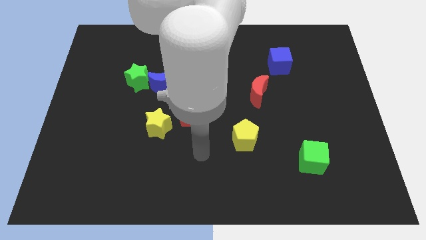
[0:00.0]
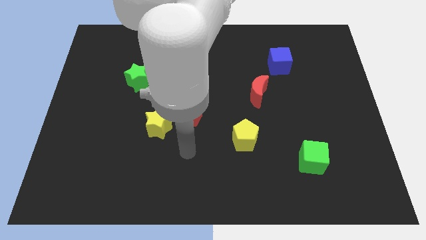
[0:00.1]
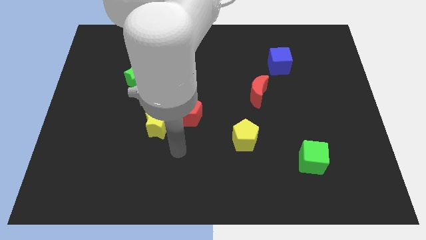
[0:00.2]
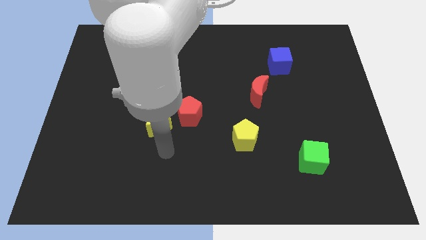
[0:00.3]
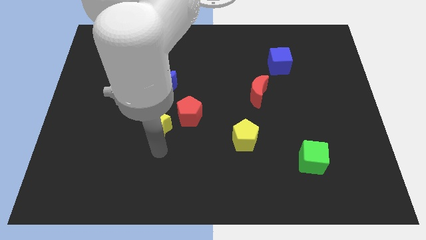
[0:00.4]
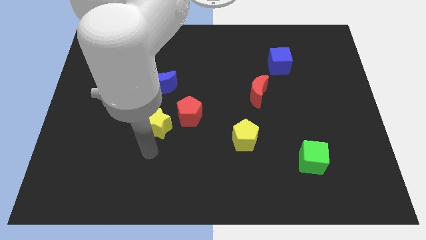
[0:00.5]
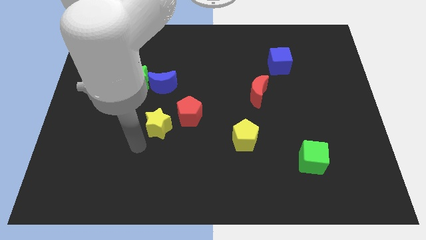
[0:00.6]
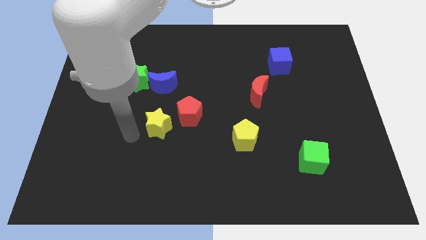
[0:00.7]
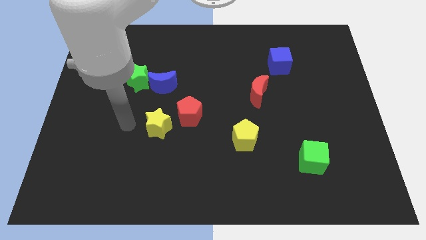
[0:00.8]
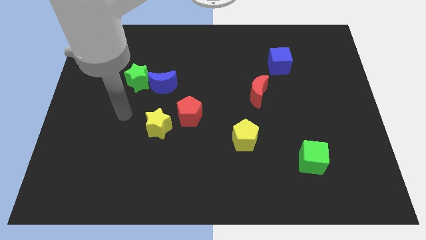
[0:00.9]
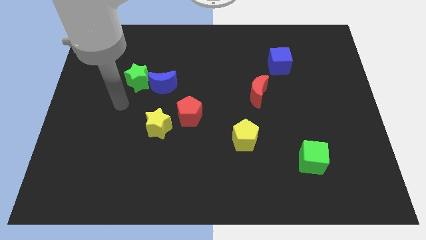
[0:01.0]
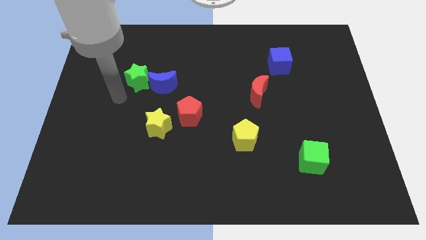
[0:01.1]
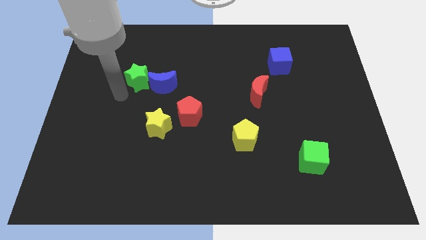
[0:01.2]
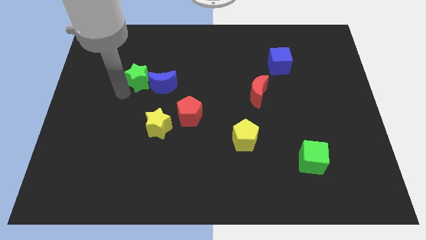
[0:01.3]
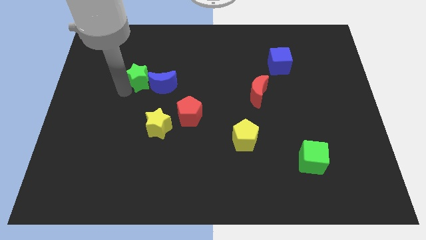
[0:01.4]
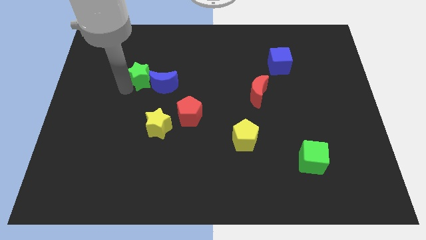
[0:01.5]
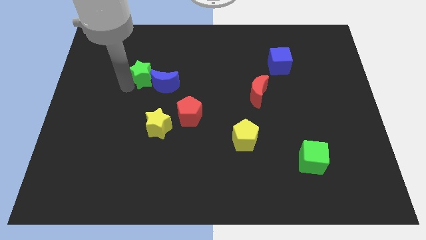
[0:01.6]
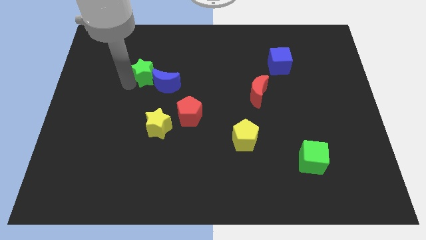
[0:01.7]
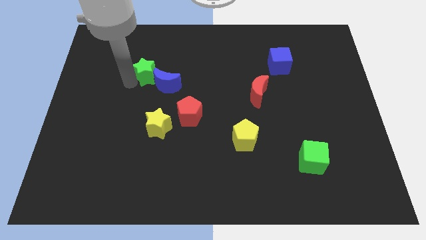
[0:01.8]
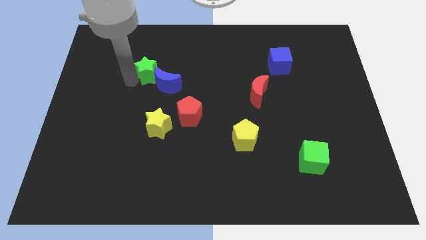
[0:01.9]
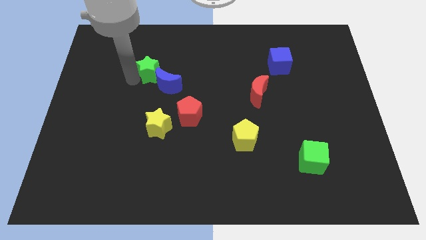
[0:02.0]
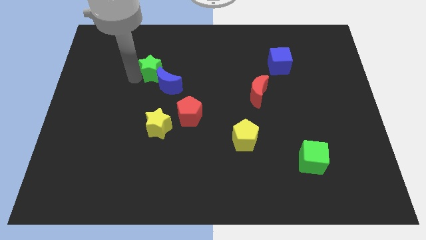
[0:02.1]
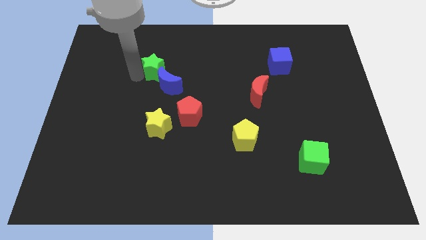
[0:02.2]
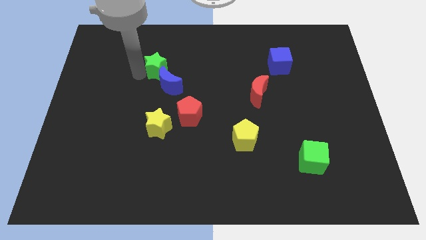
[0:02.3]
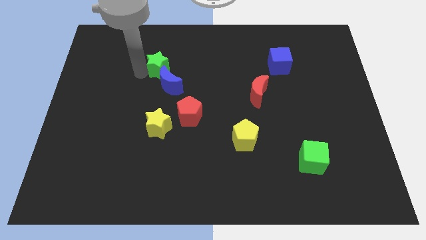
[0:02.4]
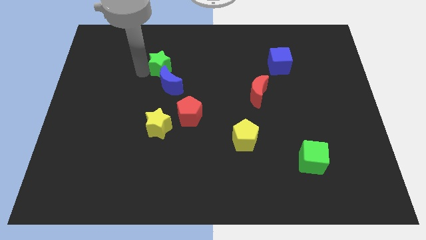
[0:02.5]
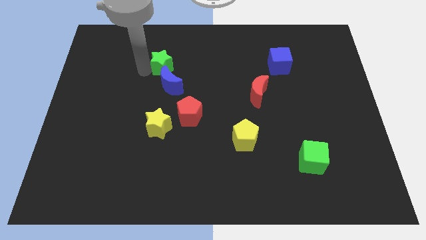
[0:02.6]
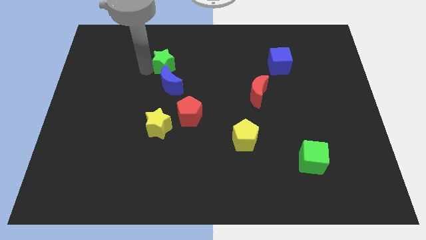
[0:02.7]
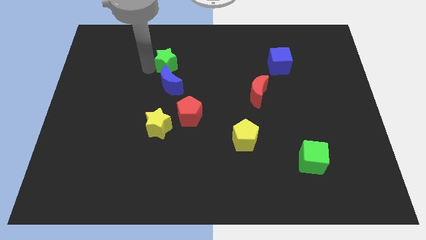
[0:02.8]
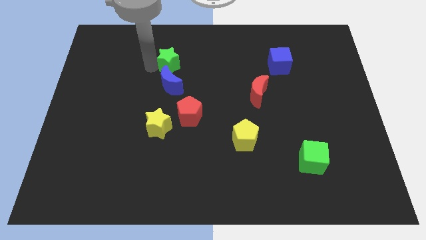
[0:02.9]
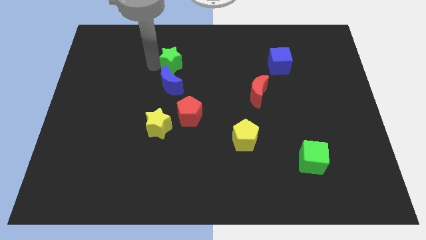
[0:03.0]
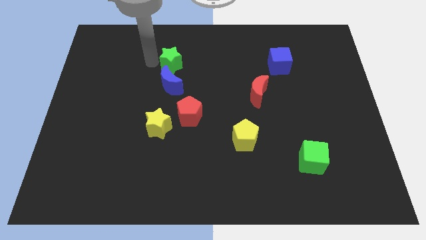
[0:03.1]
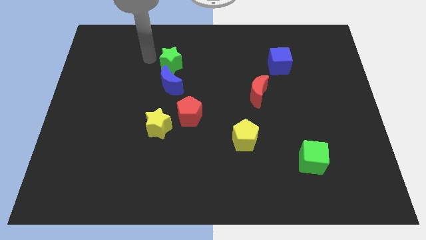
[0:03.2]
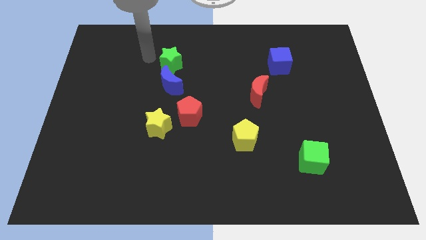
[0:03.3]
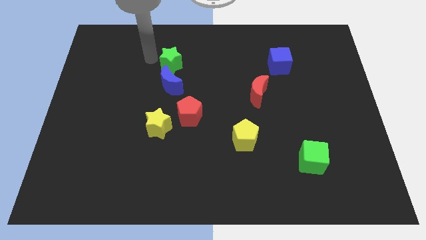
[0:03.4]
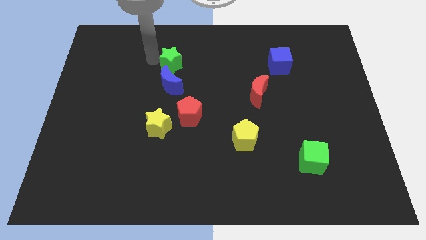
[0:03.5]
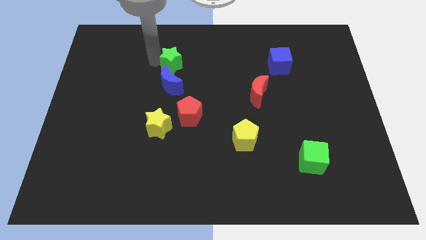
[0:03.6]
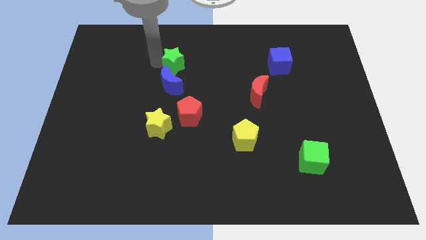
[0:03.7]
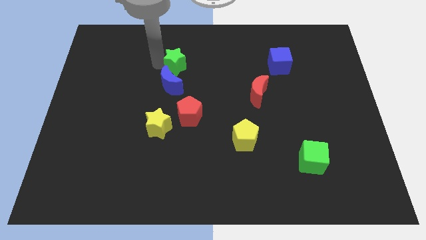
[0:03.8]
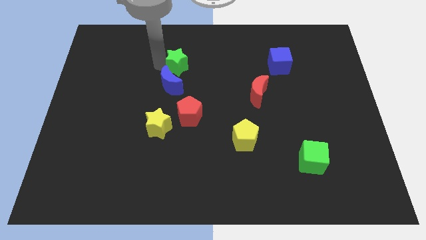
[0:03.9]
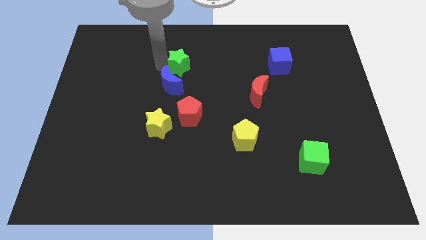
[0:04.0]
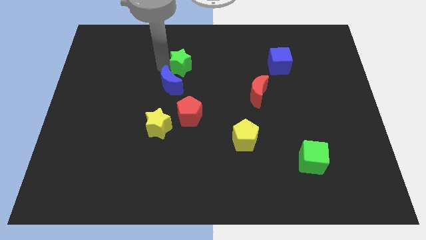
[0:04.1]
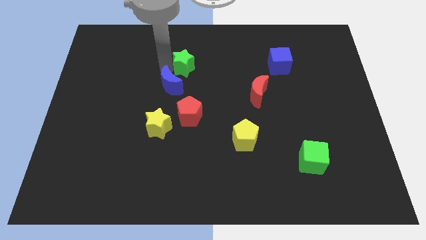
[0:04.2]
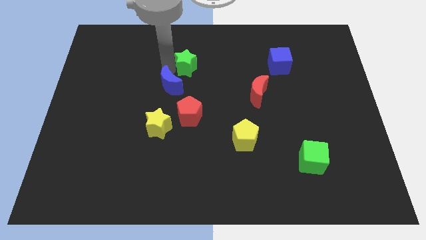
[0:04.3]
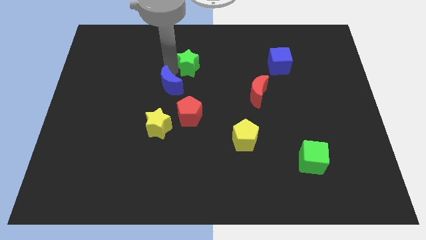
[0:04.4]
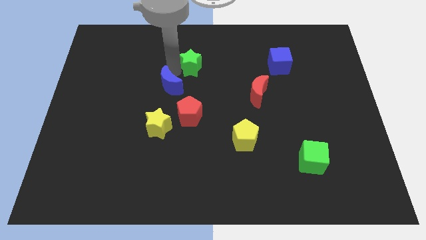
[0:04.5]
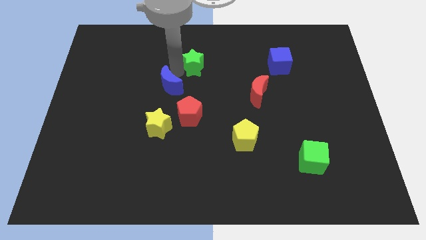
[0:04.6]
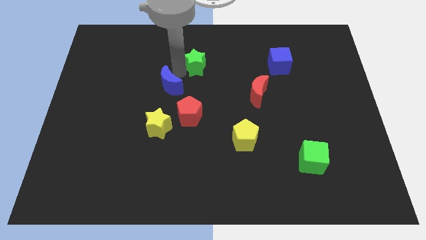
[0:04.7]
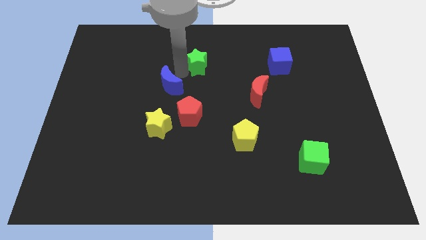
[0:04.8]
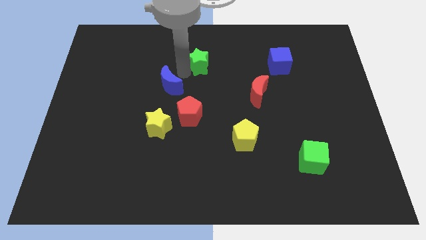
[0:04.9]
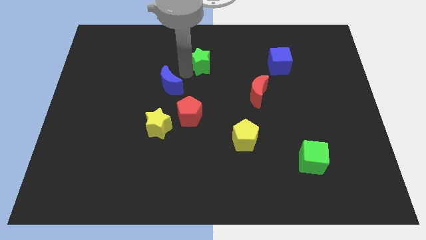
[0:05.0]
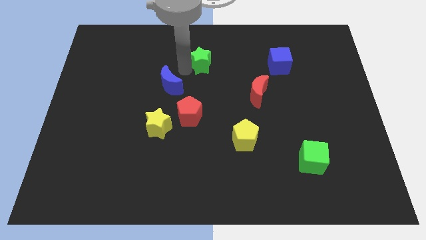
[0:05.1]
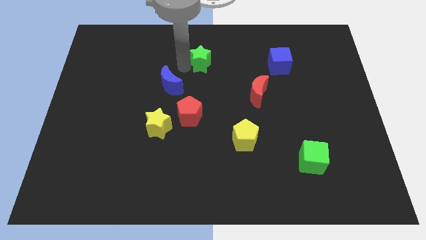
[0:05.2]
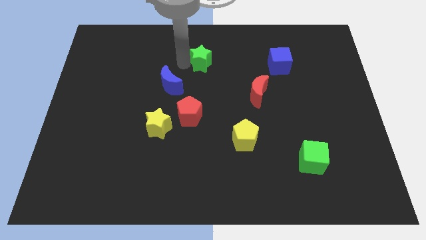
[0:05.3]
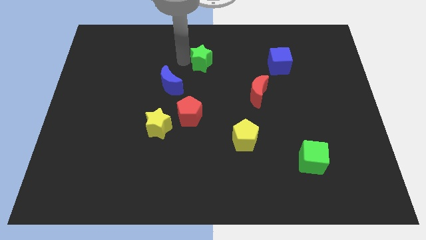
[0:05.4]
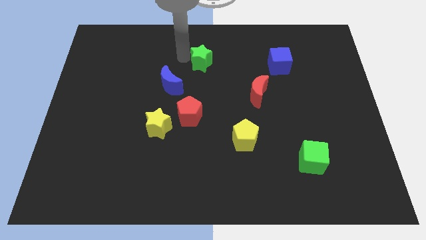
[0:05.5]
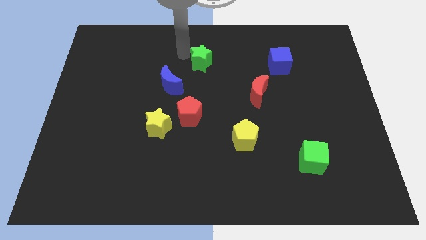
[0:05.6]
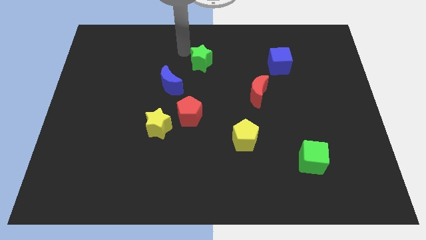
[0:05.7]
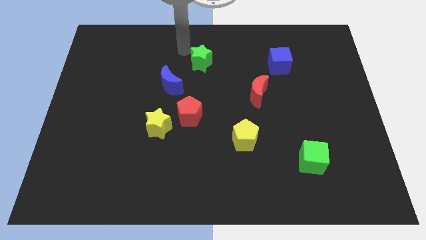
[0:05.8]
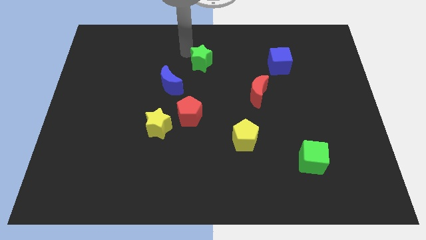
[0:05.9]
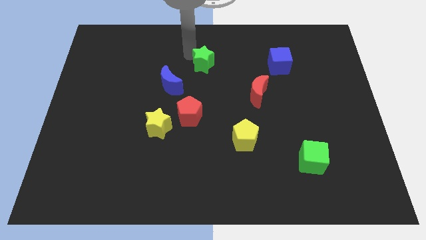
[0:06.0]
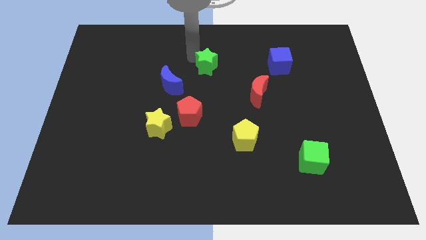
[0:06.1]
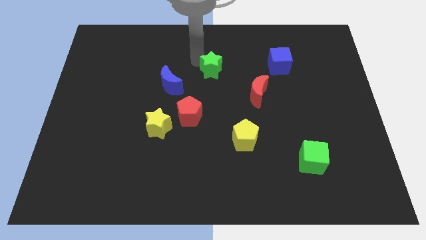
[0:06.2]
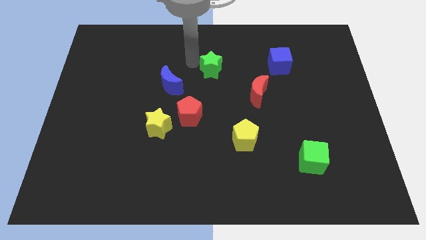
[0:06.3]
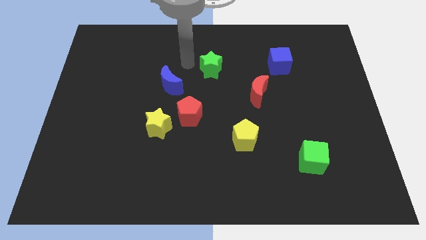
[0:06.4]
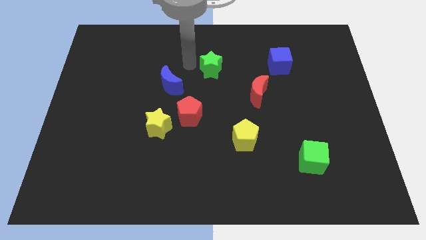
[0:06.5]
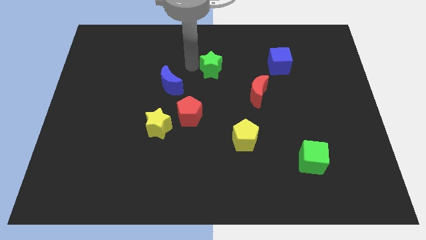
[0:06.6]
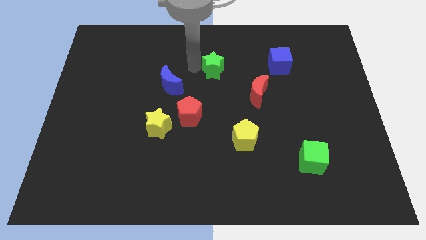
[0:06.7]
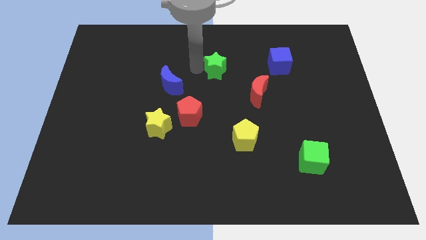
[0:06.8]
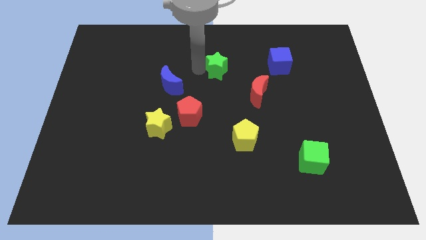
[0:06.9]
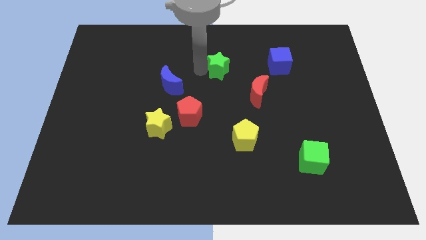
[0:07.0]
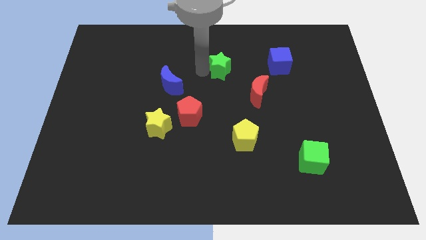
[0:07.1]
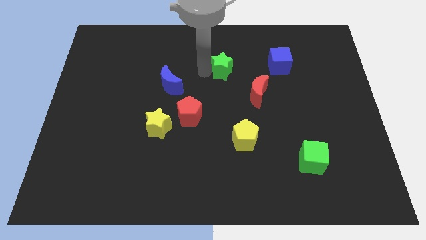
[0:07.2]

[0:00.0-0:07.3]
move the green star right

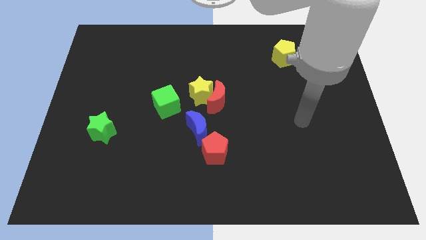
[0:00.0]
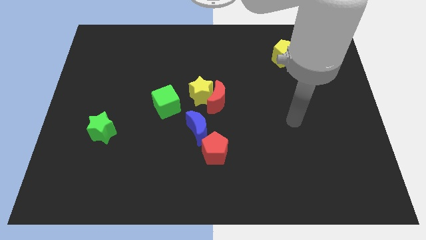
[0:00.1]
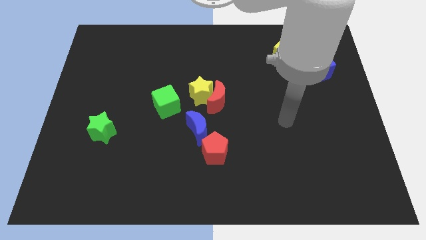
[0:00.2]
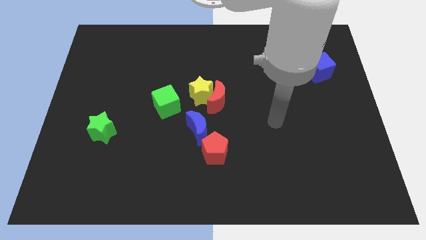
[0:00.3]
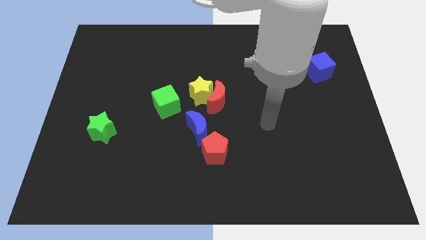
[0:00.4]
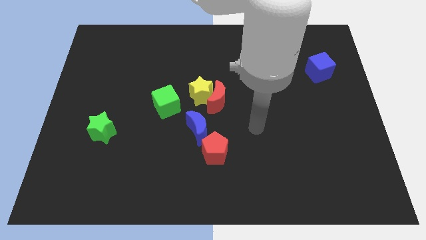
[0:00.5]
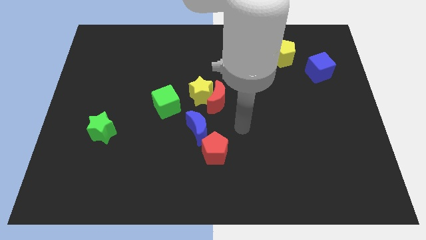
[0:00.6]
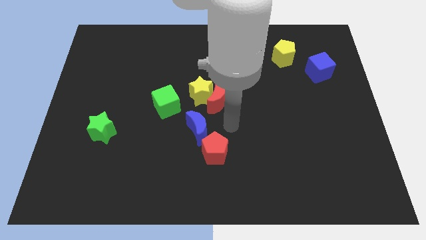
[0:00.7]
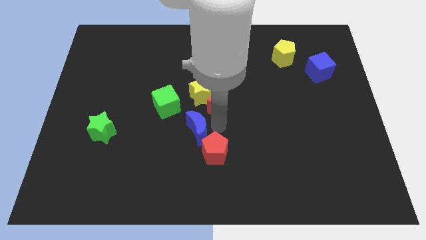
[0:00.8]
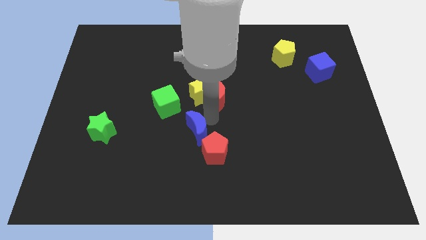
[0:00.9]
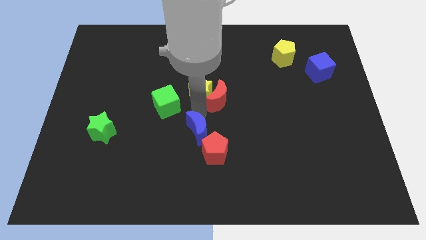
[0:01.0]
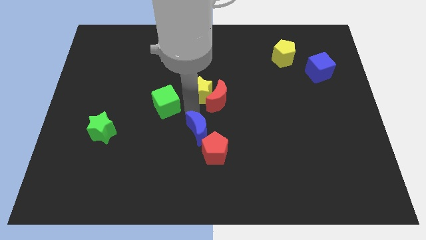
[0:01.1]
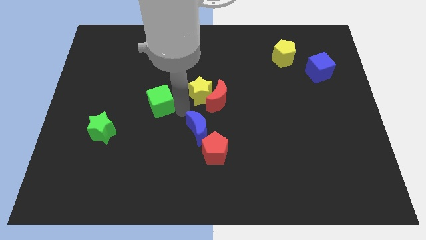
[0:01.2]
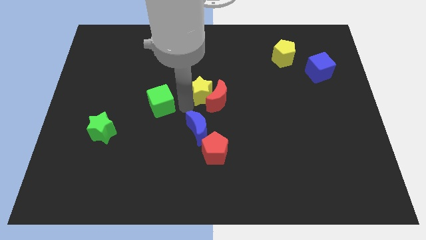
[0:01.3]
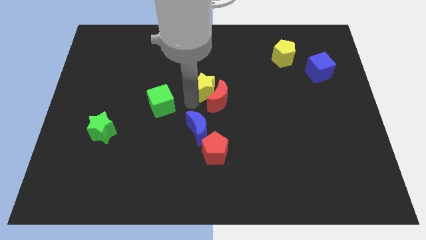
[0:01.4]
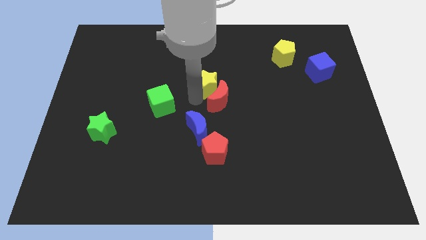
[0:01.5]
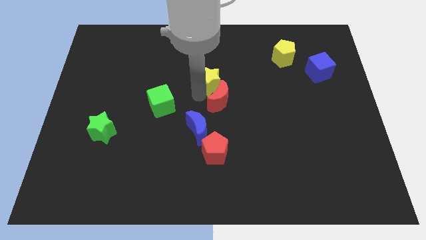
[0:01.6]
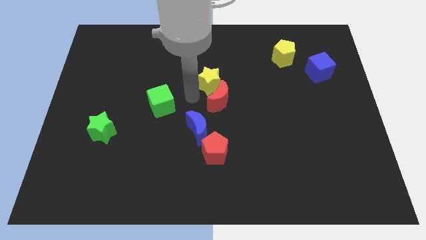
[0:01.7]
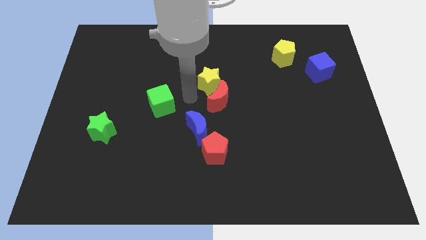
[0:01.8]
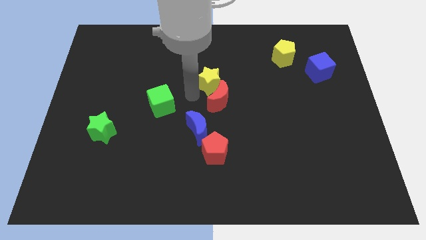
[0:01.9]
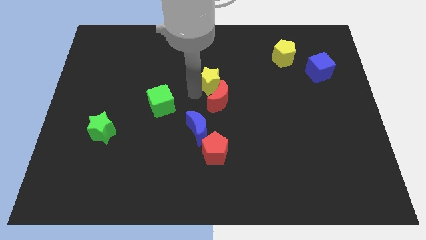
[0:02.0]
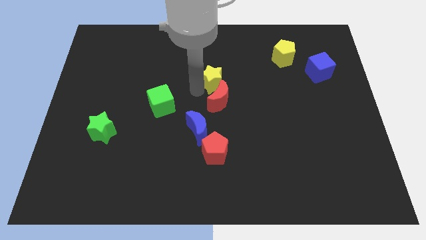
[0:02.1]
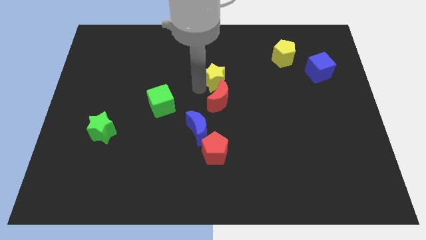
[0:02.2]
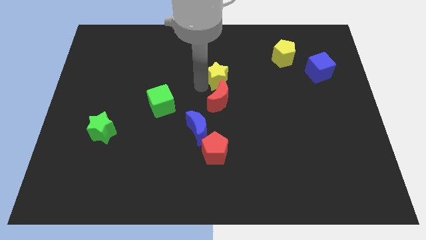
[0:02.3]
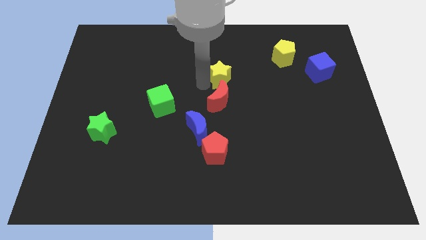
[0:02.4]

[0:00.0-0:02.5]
slightly push the yellow star diagonally upwards and right
